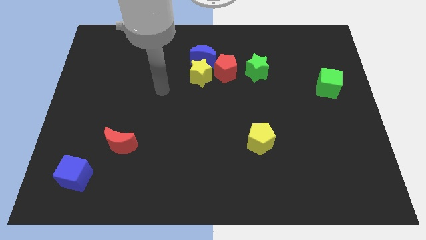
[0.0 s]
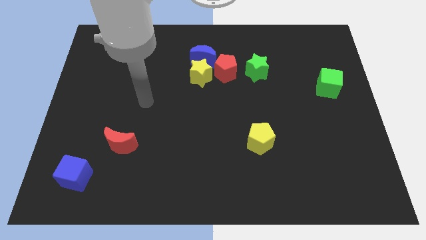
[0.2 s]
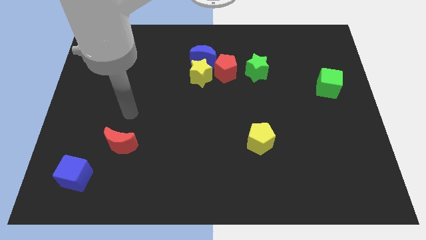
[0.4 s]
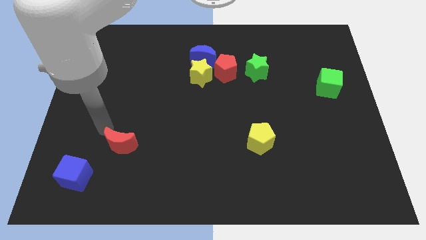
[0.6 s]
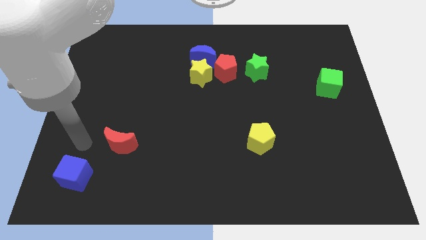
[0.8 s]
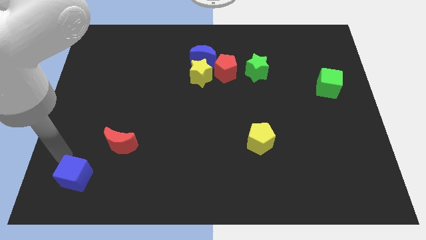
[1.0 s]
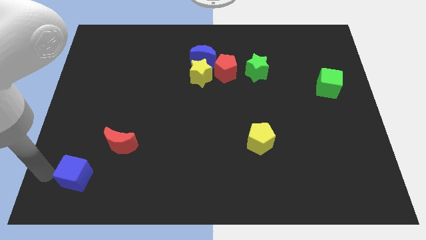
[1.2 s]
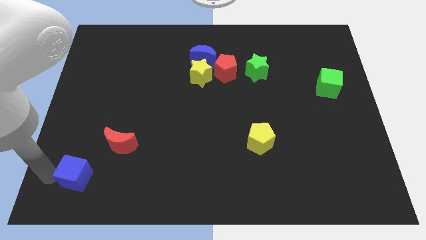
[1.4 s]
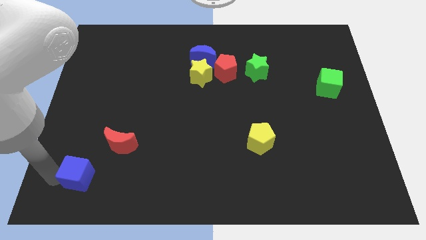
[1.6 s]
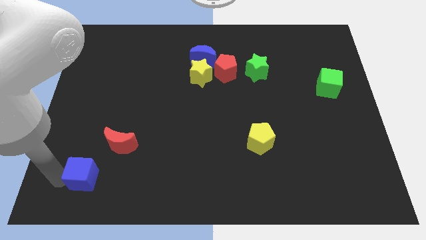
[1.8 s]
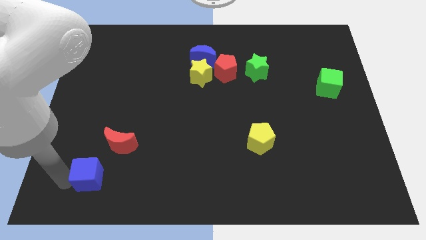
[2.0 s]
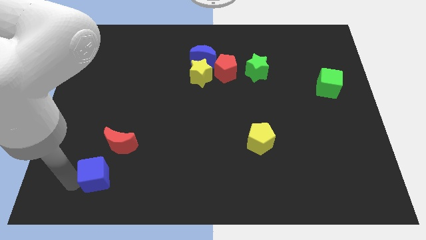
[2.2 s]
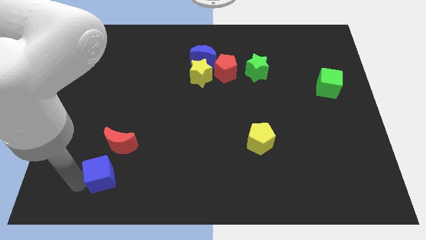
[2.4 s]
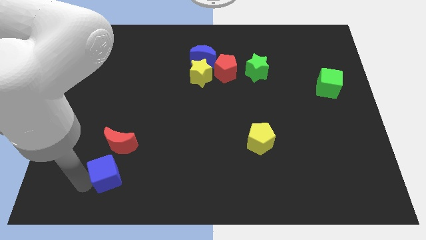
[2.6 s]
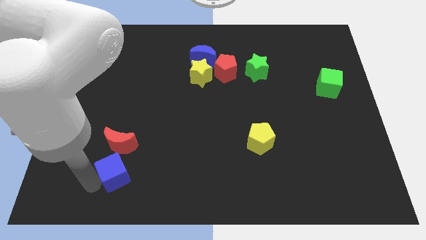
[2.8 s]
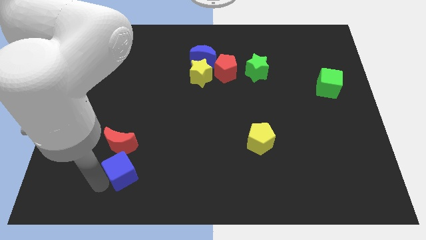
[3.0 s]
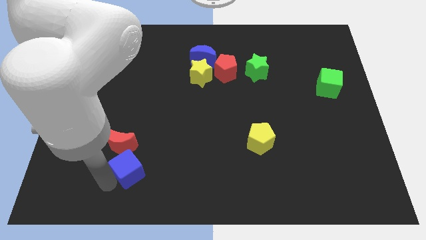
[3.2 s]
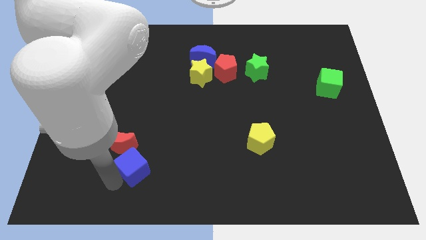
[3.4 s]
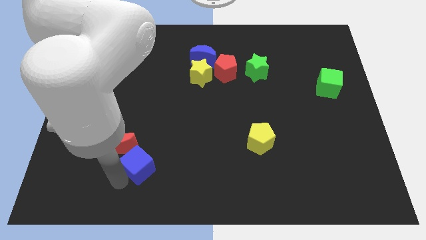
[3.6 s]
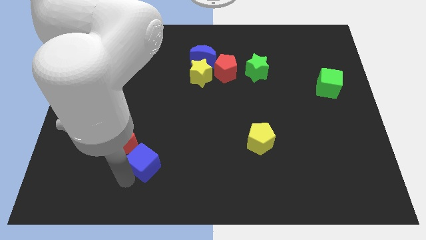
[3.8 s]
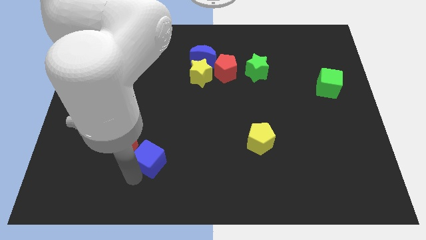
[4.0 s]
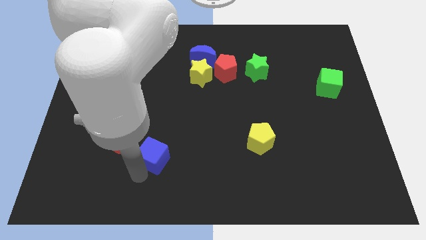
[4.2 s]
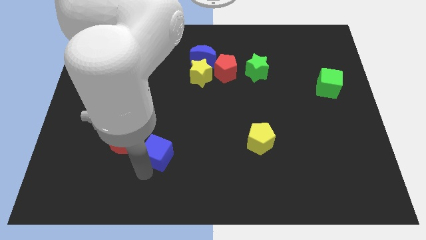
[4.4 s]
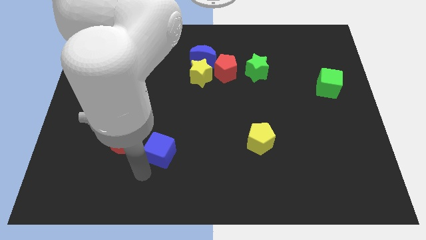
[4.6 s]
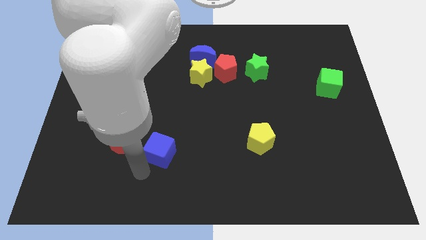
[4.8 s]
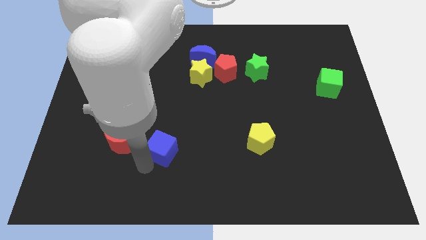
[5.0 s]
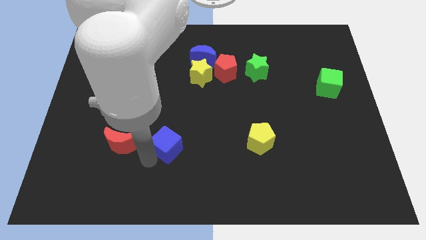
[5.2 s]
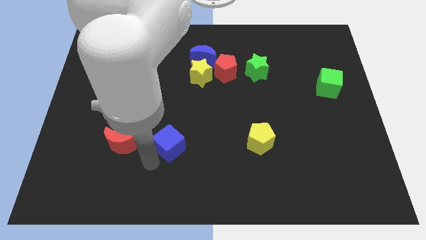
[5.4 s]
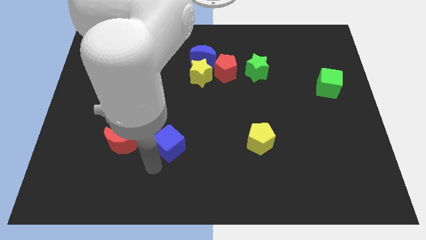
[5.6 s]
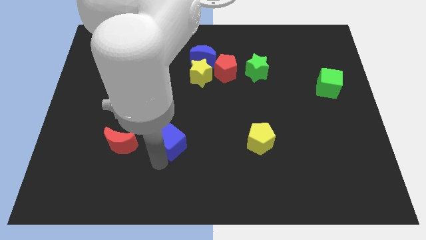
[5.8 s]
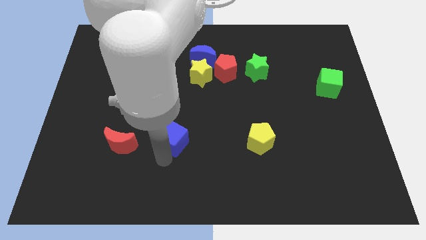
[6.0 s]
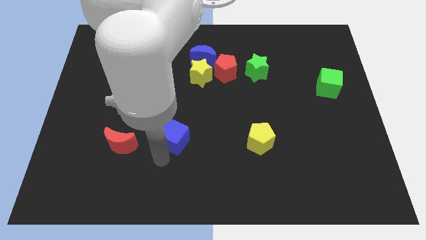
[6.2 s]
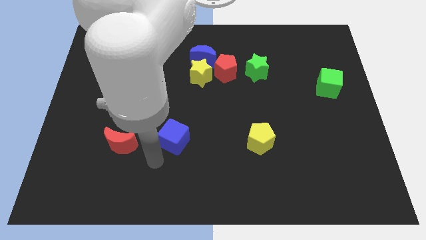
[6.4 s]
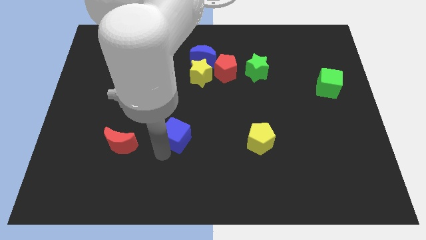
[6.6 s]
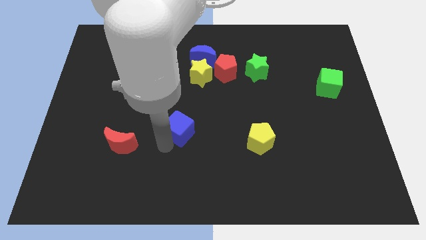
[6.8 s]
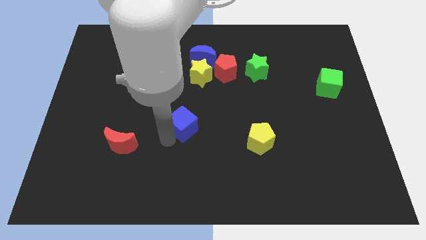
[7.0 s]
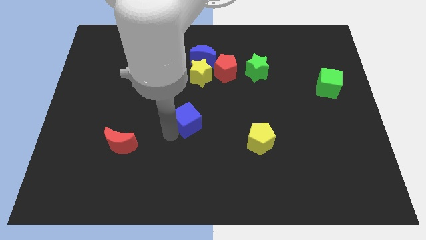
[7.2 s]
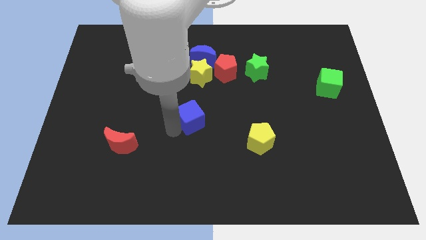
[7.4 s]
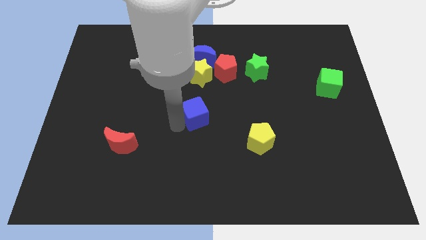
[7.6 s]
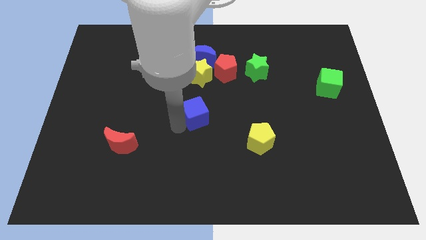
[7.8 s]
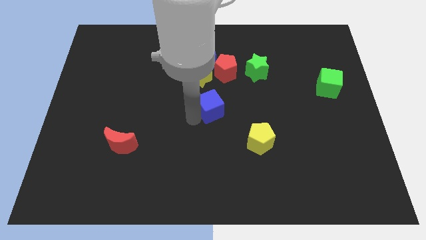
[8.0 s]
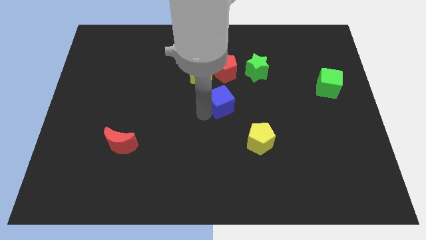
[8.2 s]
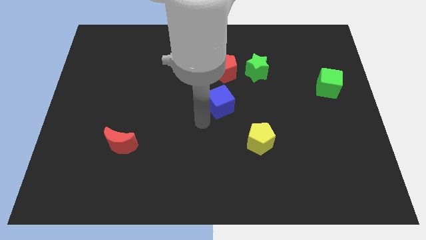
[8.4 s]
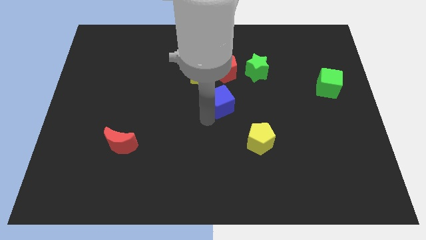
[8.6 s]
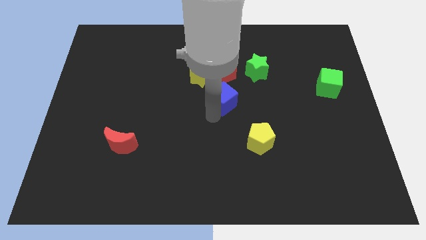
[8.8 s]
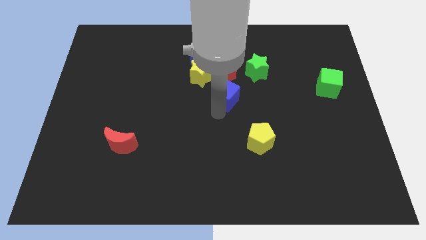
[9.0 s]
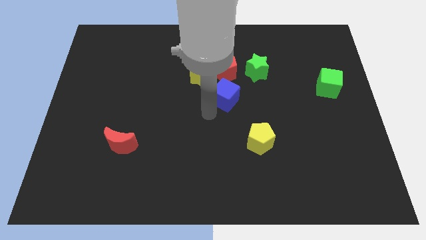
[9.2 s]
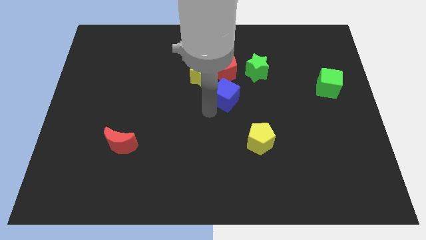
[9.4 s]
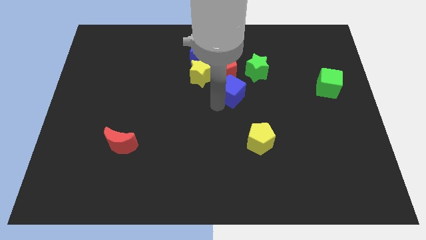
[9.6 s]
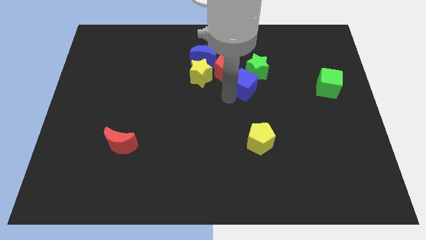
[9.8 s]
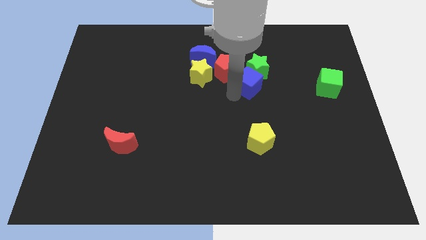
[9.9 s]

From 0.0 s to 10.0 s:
slide the blue cube next to the green star

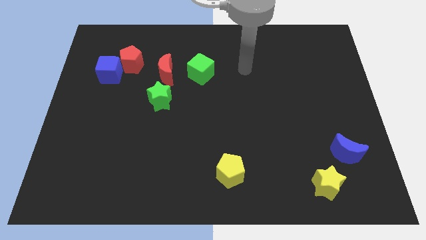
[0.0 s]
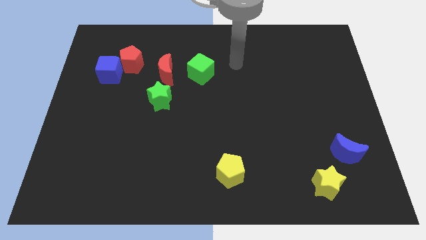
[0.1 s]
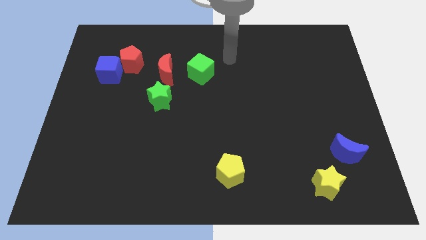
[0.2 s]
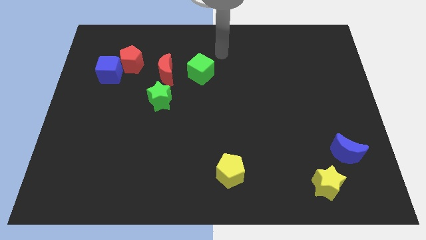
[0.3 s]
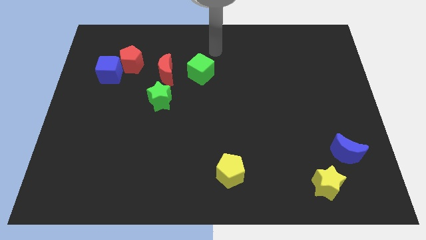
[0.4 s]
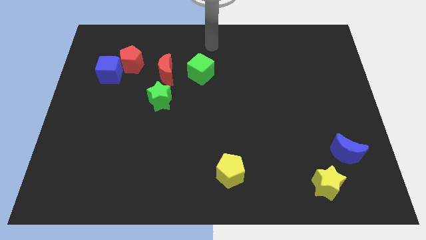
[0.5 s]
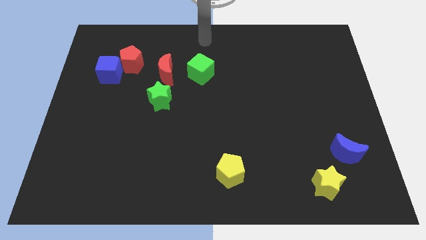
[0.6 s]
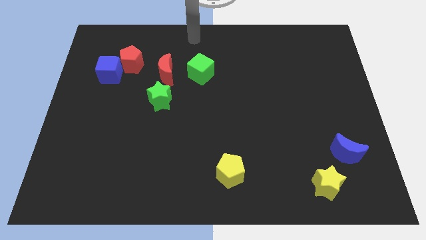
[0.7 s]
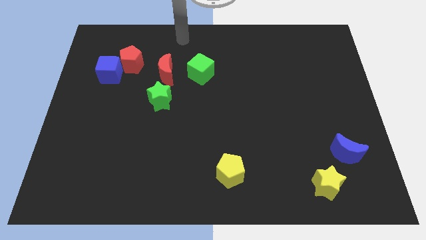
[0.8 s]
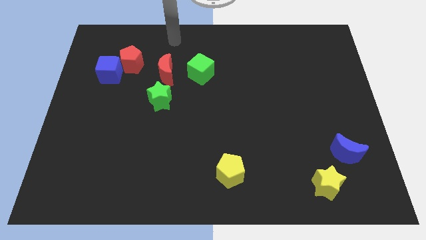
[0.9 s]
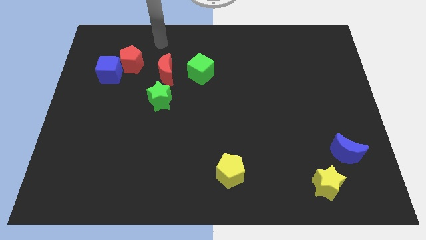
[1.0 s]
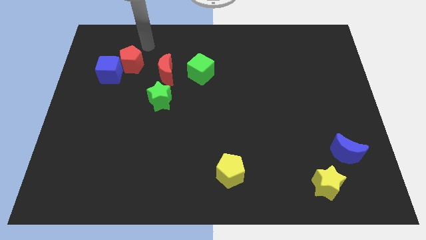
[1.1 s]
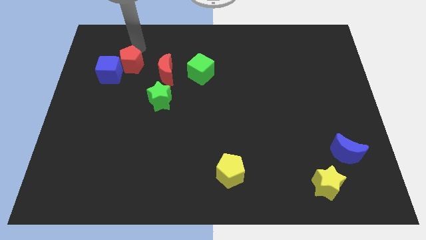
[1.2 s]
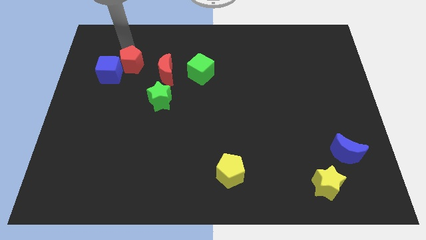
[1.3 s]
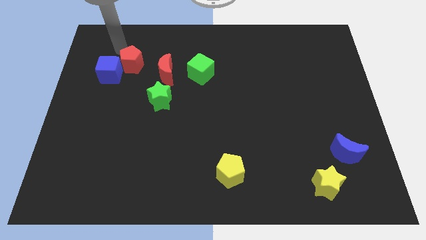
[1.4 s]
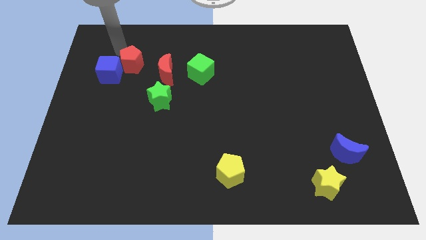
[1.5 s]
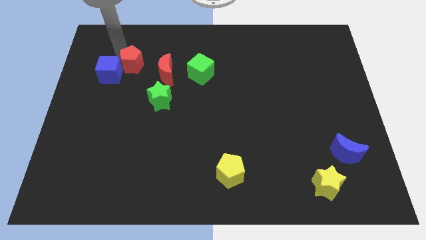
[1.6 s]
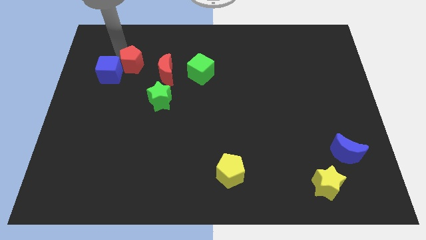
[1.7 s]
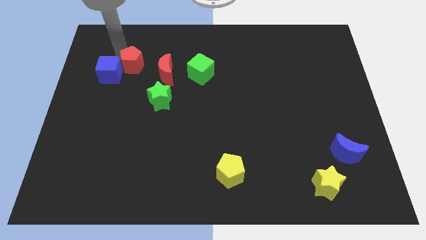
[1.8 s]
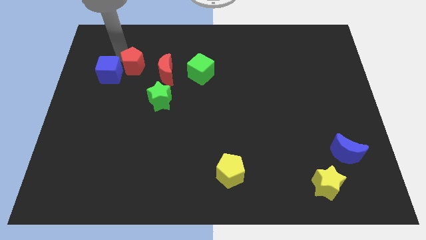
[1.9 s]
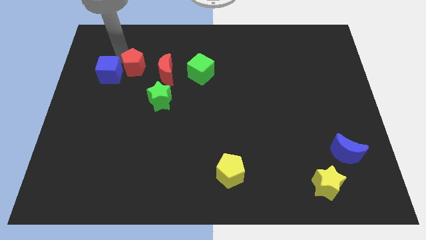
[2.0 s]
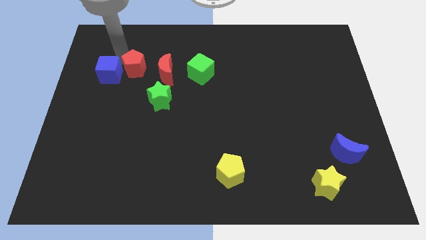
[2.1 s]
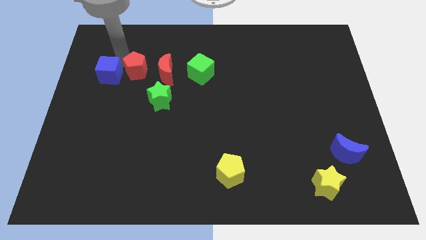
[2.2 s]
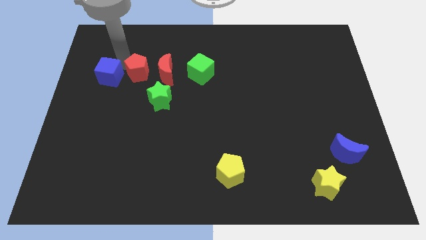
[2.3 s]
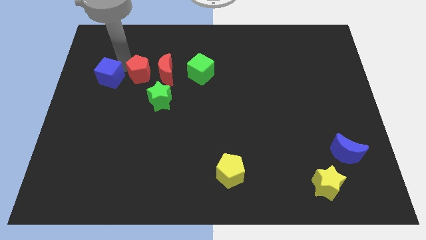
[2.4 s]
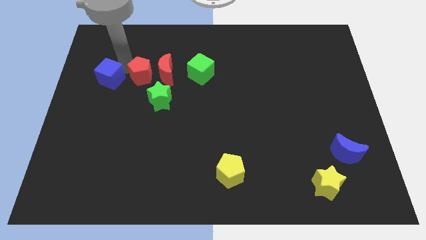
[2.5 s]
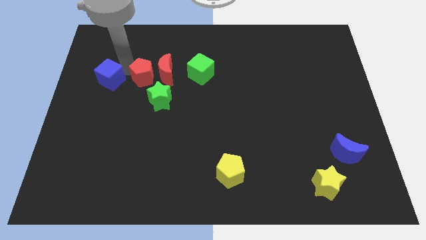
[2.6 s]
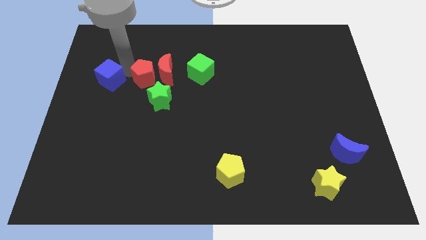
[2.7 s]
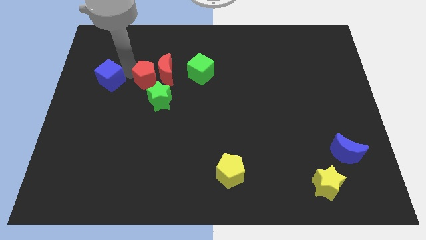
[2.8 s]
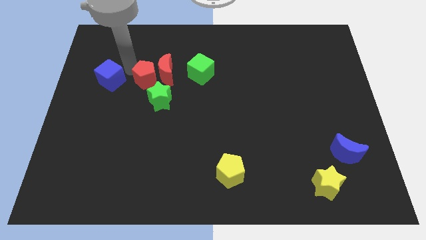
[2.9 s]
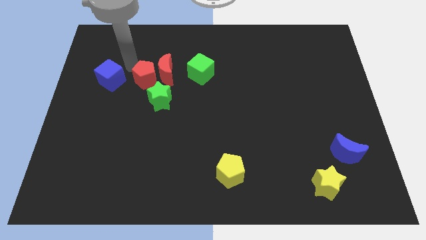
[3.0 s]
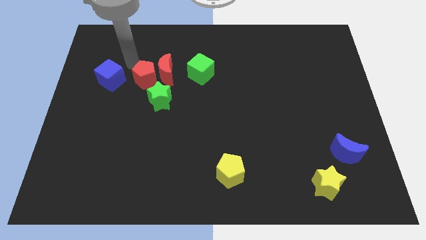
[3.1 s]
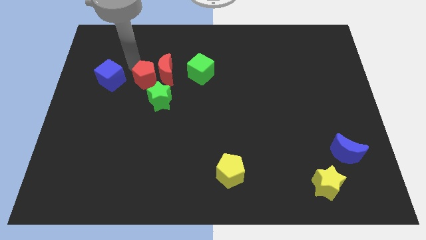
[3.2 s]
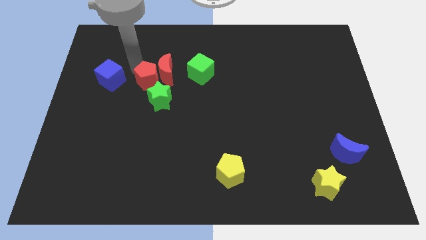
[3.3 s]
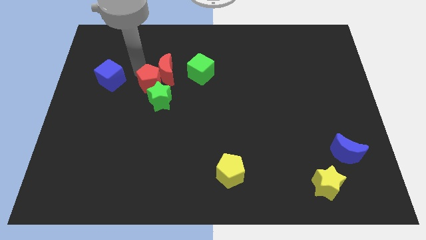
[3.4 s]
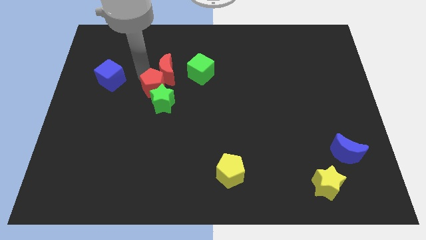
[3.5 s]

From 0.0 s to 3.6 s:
put the red pentagon towards the green star
